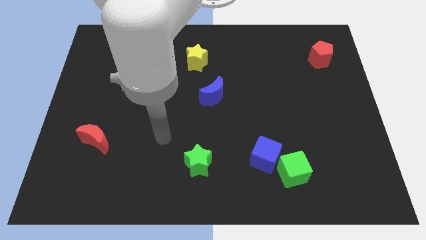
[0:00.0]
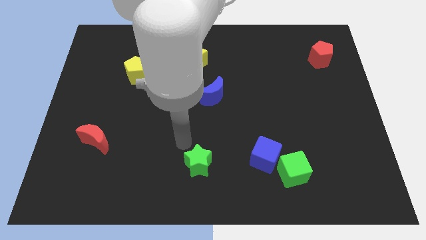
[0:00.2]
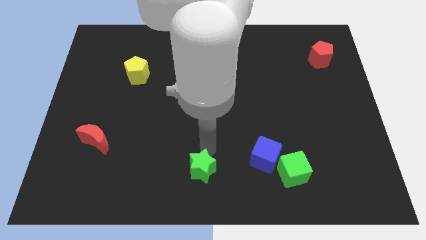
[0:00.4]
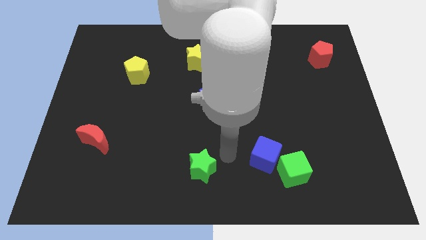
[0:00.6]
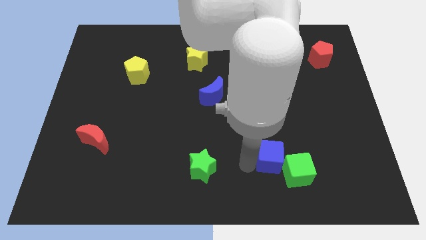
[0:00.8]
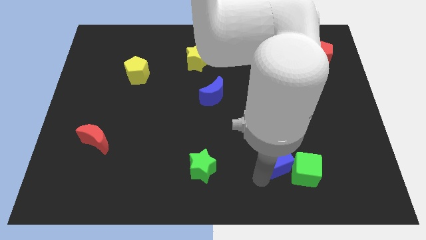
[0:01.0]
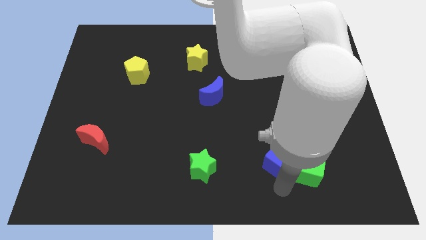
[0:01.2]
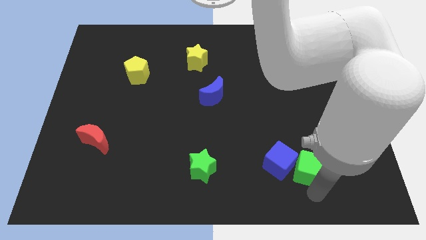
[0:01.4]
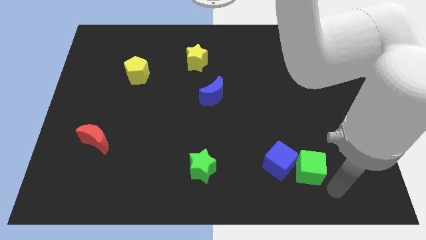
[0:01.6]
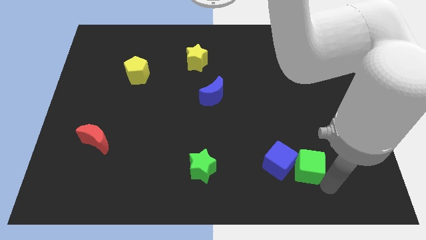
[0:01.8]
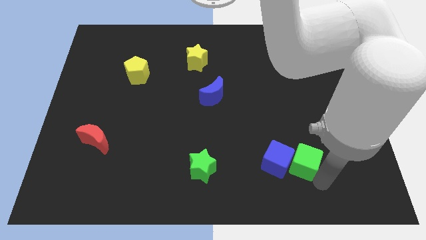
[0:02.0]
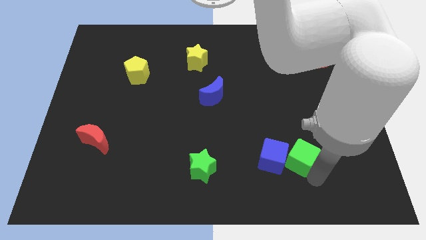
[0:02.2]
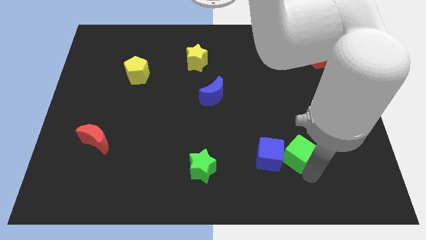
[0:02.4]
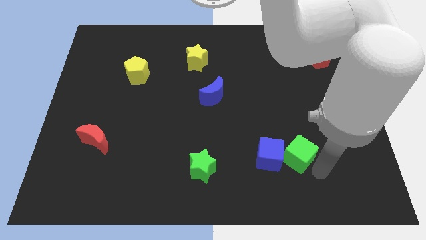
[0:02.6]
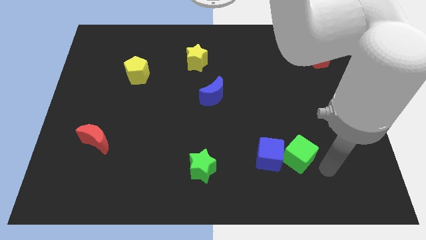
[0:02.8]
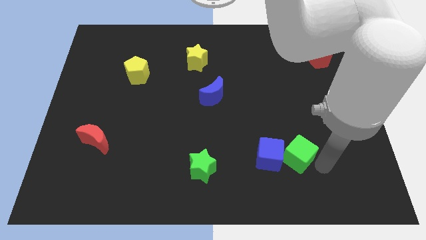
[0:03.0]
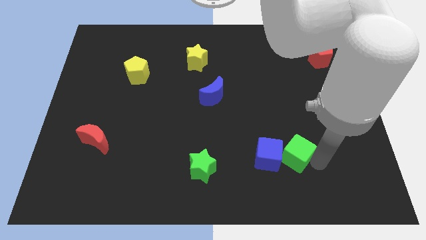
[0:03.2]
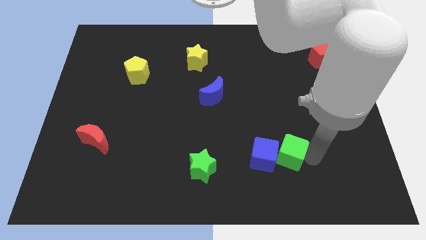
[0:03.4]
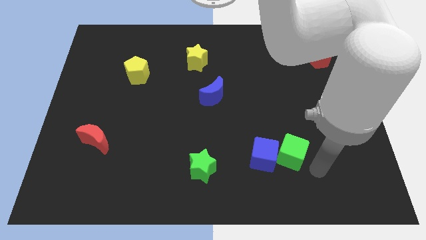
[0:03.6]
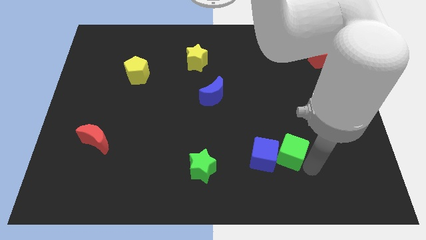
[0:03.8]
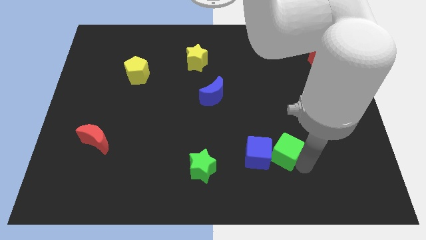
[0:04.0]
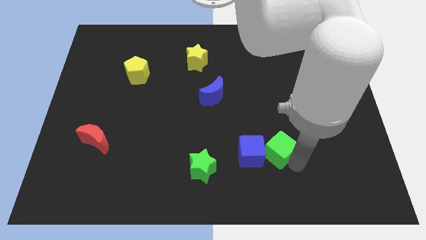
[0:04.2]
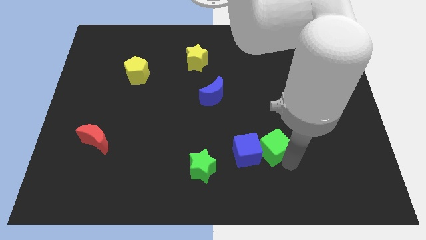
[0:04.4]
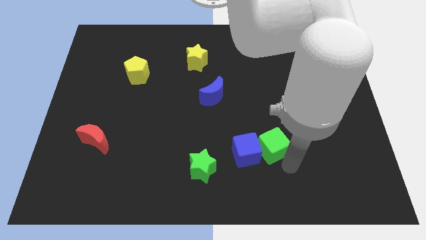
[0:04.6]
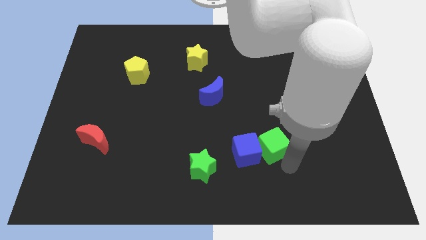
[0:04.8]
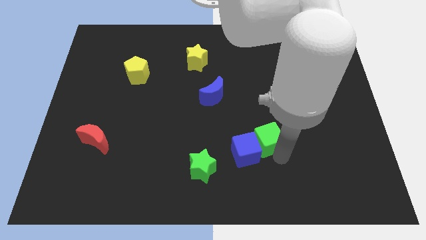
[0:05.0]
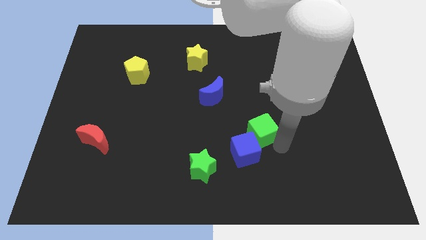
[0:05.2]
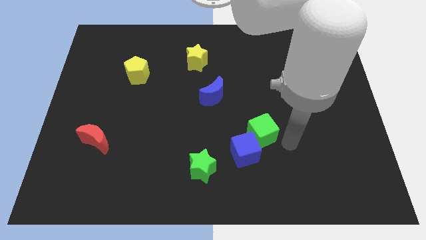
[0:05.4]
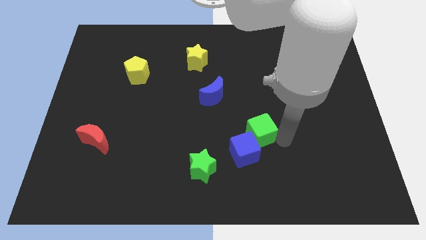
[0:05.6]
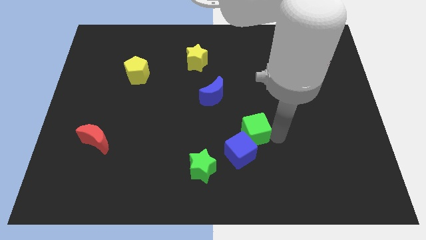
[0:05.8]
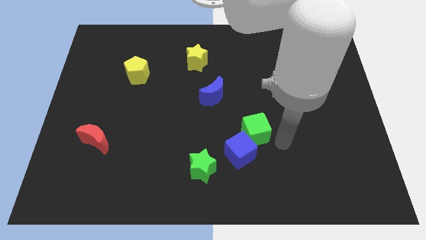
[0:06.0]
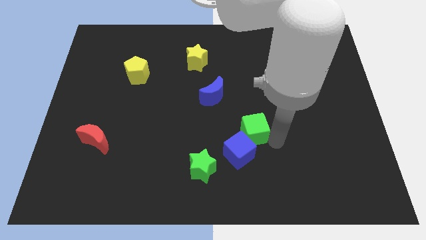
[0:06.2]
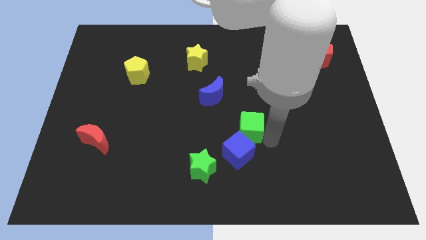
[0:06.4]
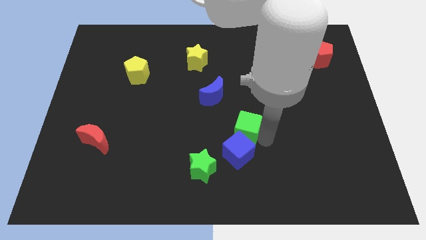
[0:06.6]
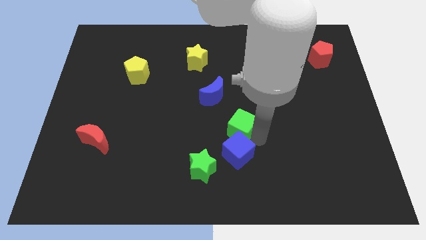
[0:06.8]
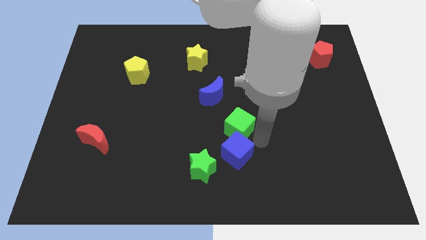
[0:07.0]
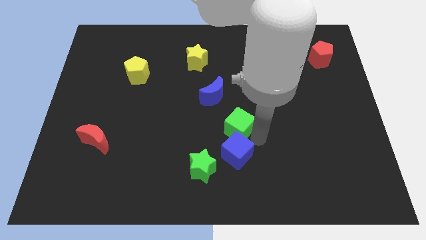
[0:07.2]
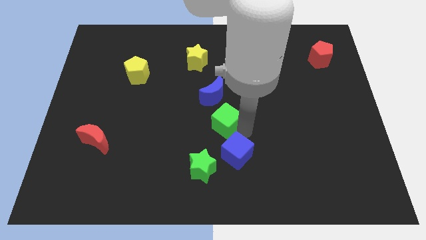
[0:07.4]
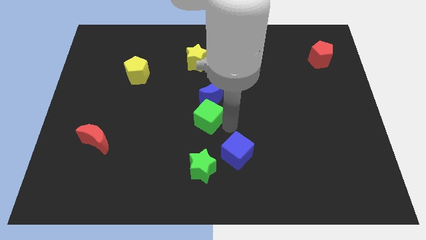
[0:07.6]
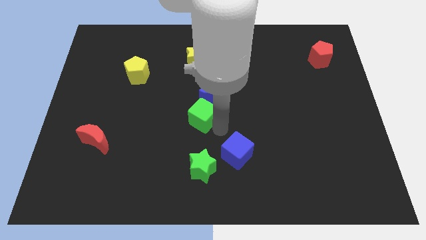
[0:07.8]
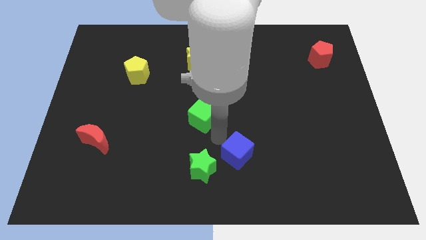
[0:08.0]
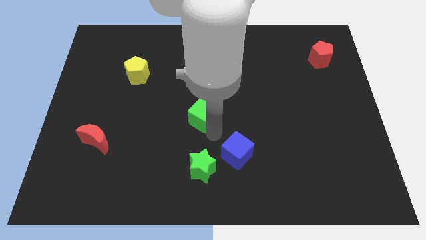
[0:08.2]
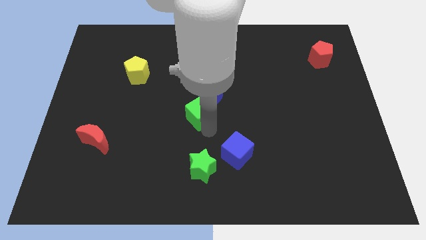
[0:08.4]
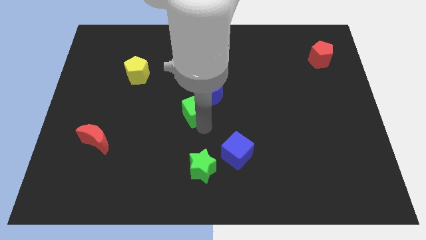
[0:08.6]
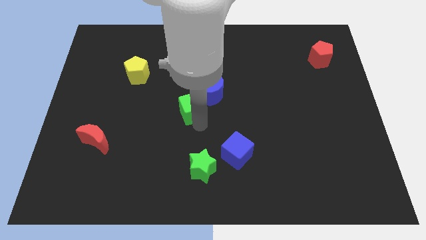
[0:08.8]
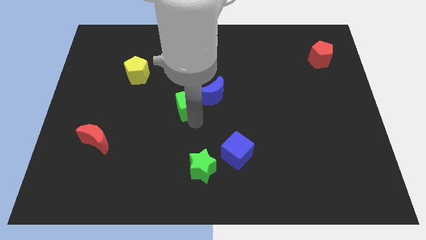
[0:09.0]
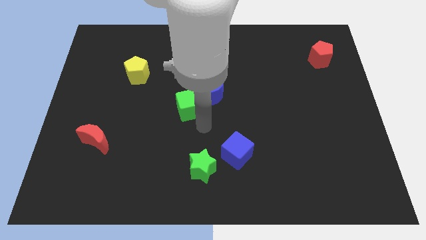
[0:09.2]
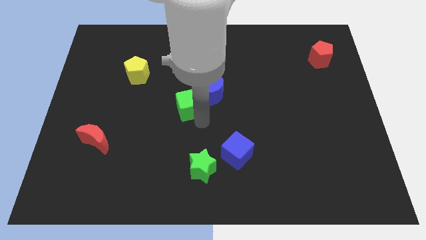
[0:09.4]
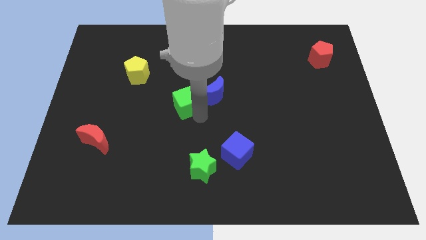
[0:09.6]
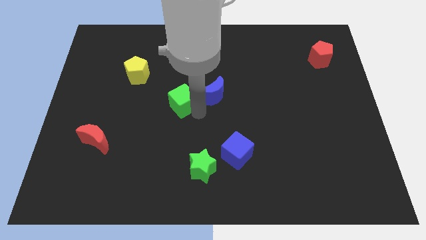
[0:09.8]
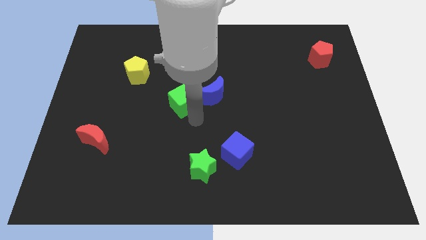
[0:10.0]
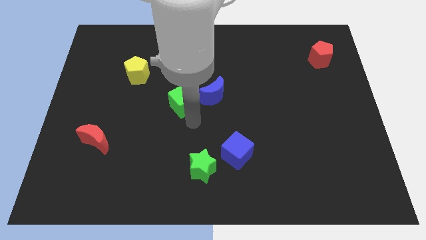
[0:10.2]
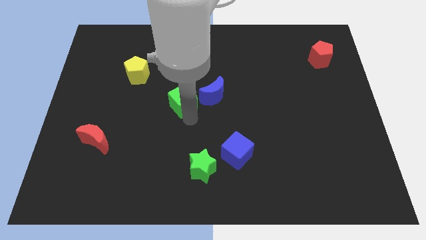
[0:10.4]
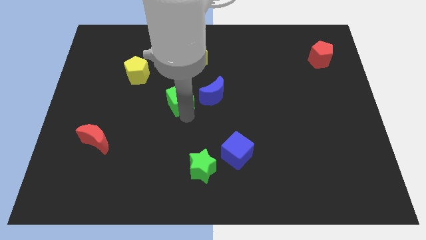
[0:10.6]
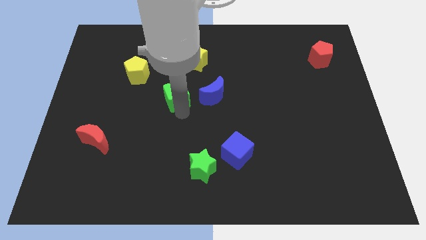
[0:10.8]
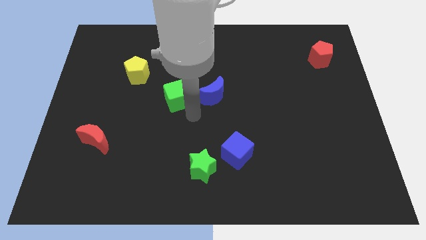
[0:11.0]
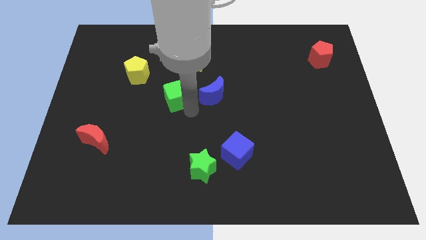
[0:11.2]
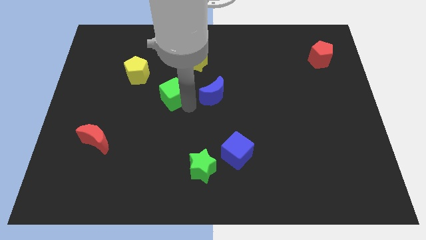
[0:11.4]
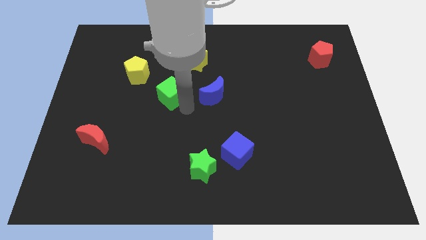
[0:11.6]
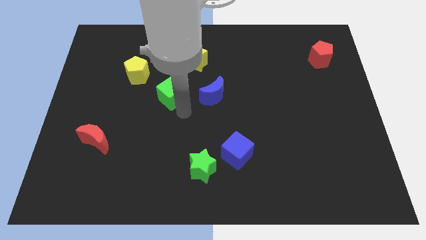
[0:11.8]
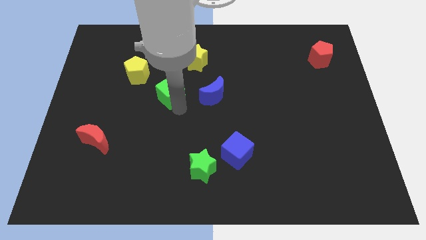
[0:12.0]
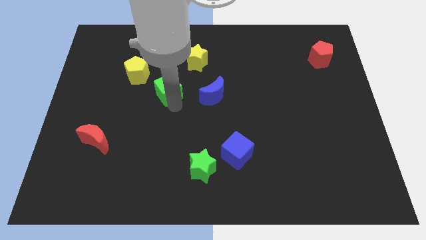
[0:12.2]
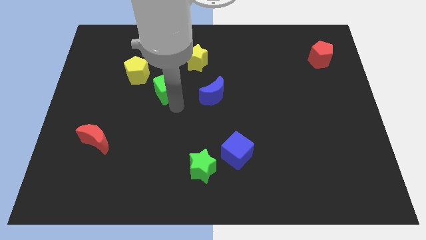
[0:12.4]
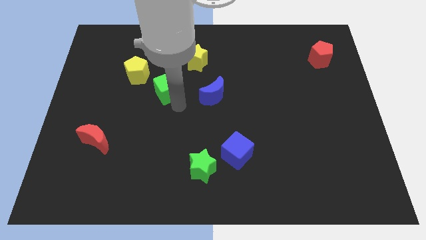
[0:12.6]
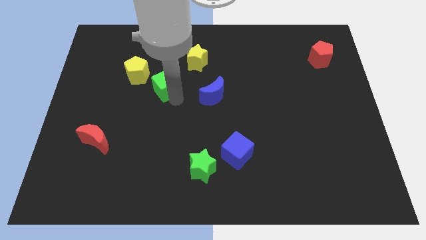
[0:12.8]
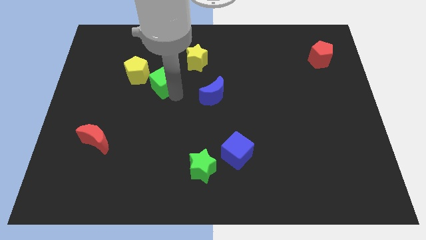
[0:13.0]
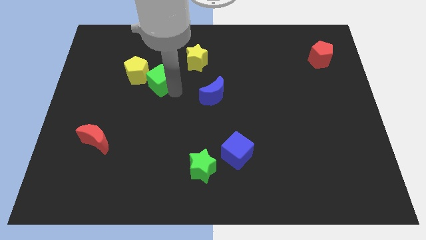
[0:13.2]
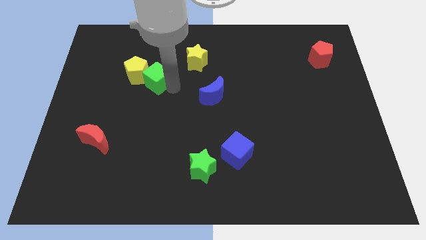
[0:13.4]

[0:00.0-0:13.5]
put the green cube close to the yellow pentagon
